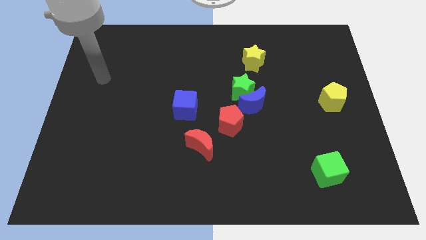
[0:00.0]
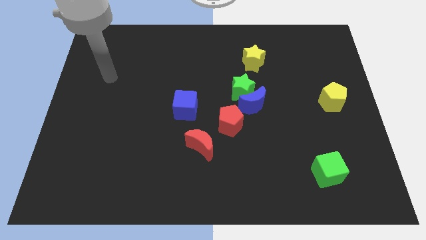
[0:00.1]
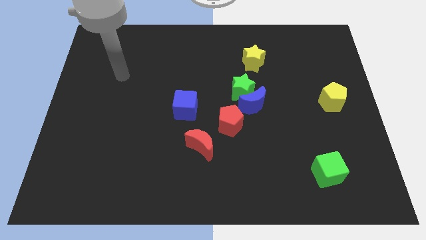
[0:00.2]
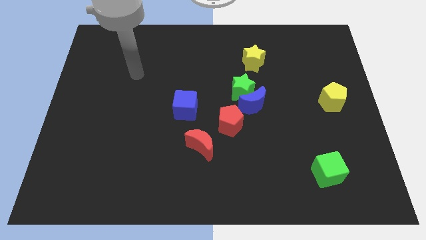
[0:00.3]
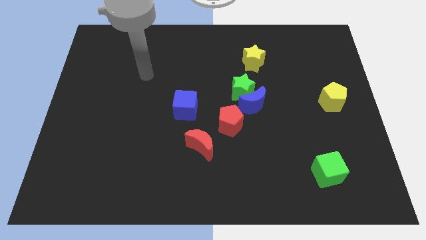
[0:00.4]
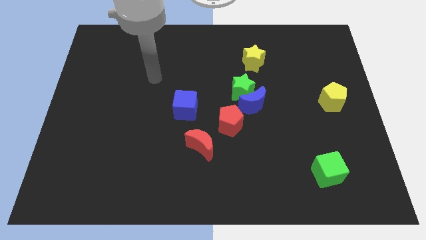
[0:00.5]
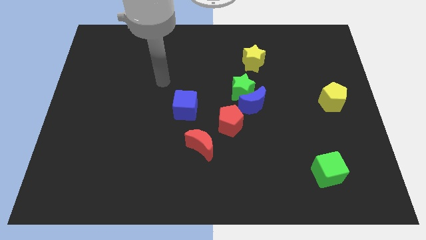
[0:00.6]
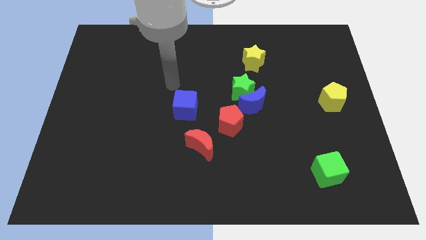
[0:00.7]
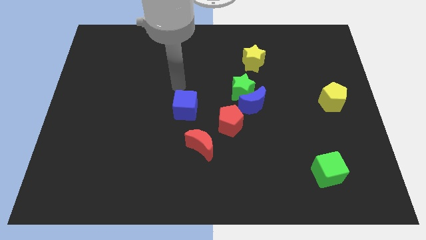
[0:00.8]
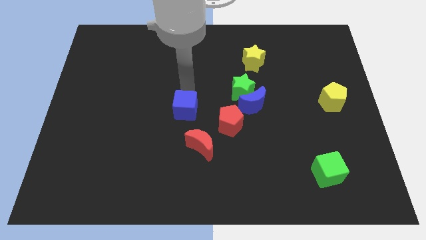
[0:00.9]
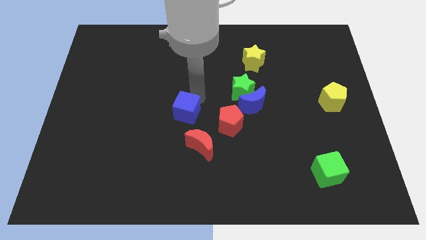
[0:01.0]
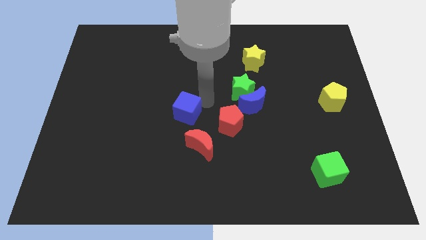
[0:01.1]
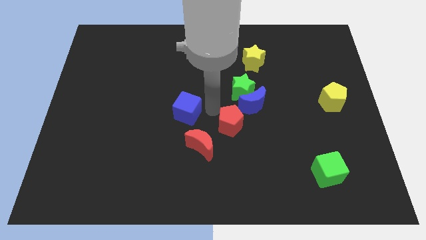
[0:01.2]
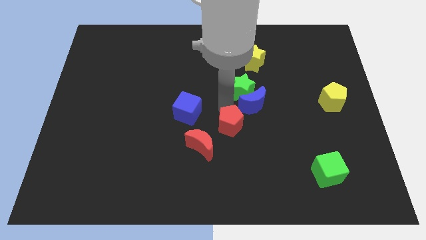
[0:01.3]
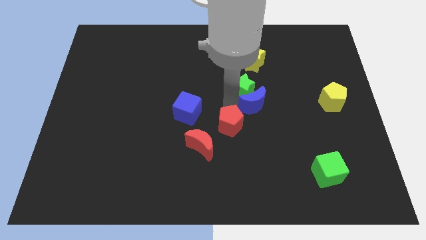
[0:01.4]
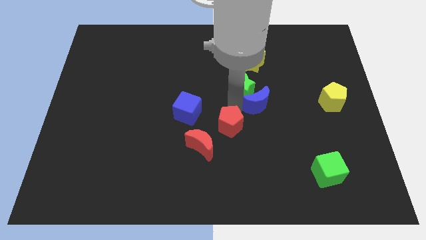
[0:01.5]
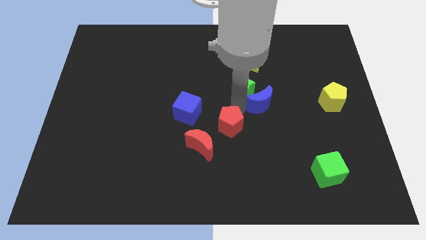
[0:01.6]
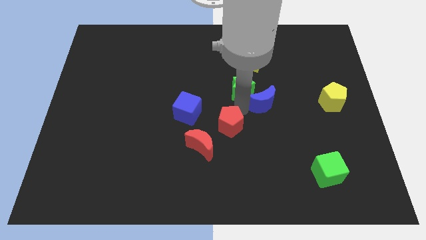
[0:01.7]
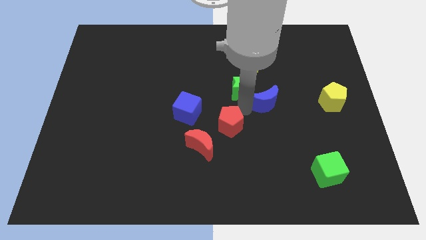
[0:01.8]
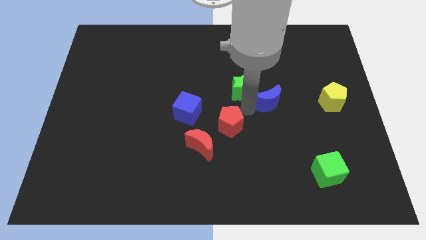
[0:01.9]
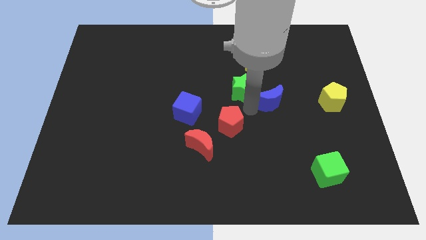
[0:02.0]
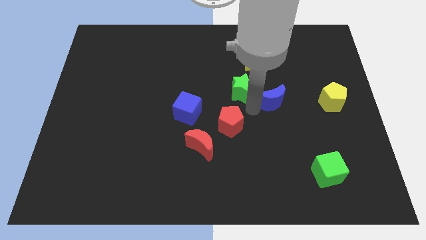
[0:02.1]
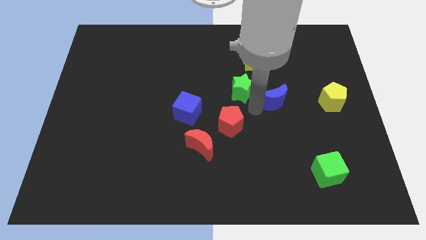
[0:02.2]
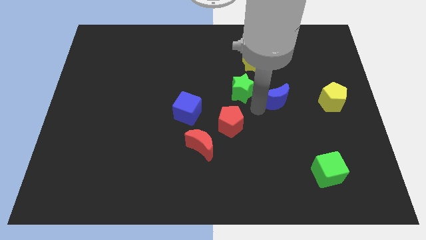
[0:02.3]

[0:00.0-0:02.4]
move the blue moon away from the green star and red pentagon

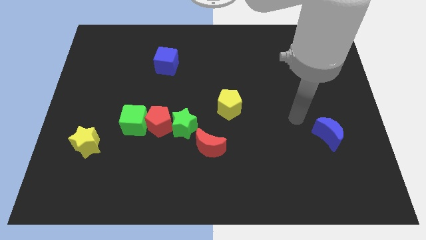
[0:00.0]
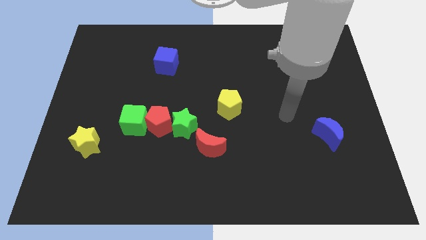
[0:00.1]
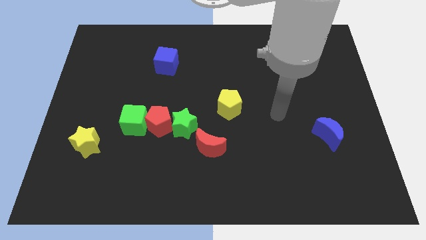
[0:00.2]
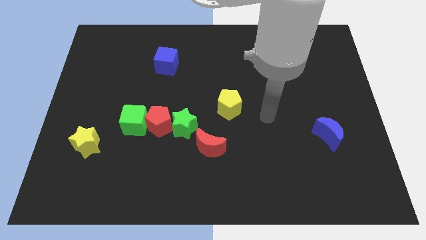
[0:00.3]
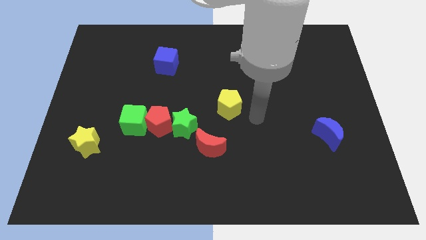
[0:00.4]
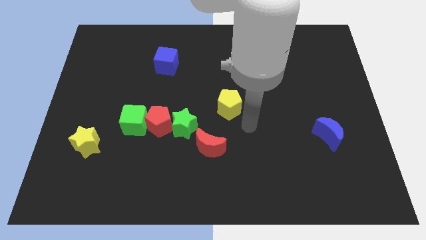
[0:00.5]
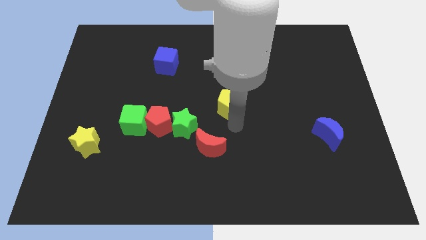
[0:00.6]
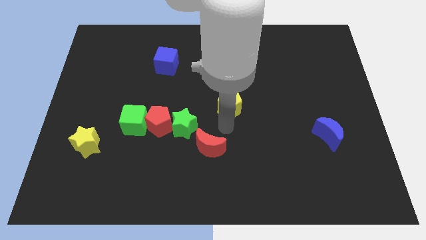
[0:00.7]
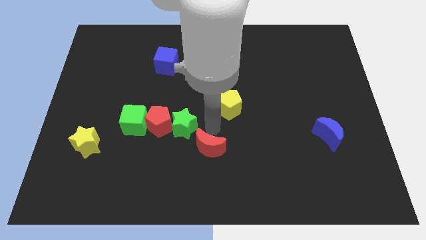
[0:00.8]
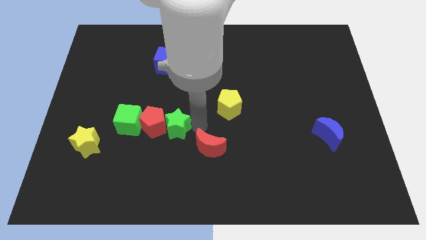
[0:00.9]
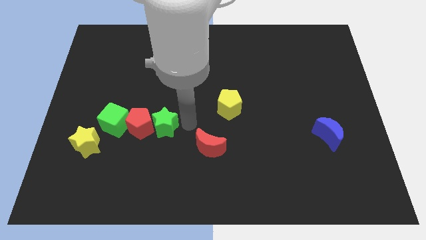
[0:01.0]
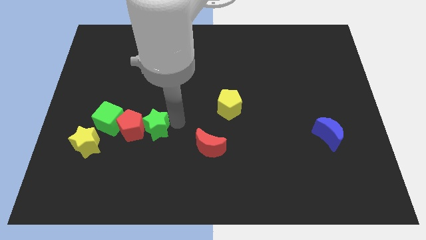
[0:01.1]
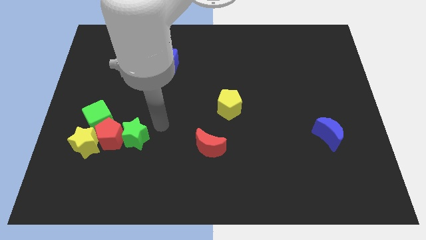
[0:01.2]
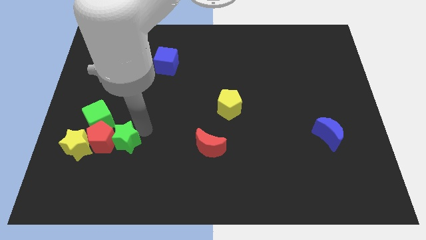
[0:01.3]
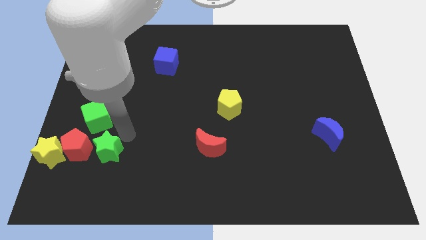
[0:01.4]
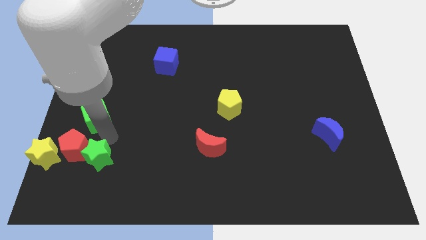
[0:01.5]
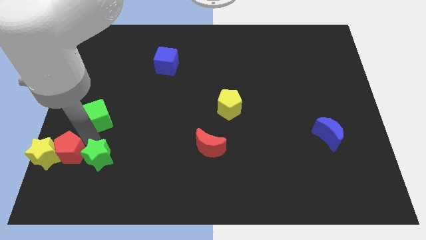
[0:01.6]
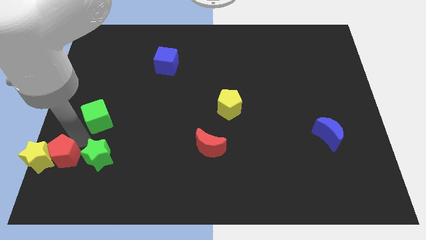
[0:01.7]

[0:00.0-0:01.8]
move the green cube away from the red pentagon

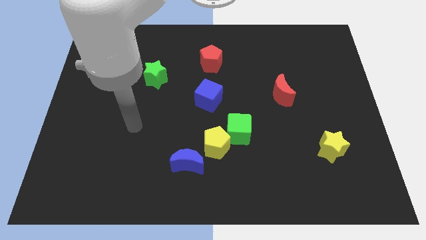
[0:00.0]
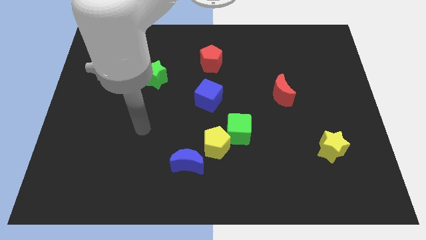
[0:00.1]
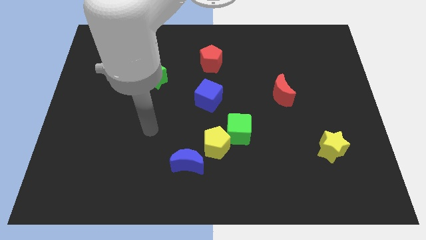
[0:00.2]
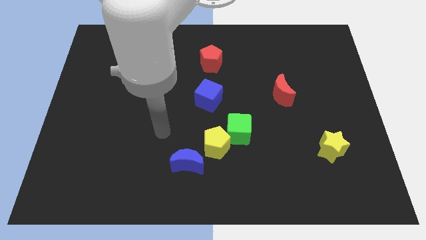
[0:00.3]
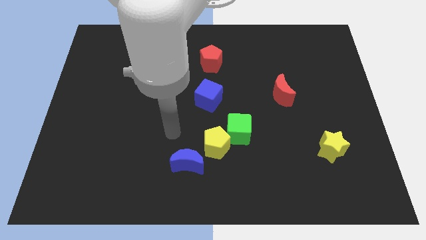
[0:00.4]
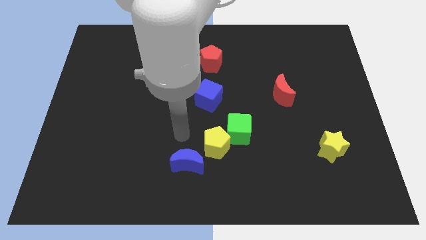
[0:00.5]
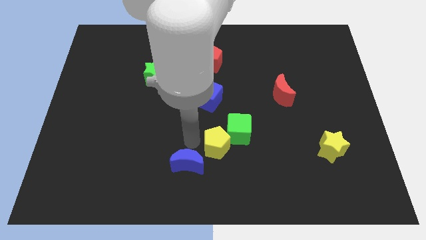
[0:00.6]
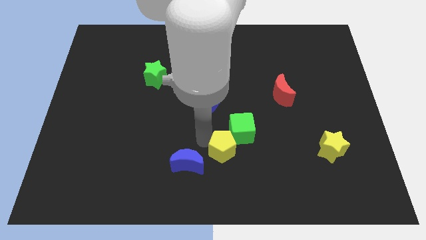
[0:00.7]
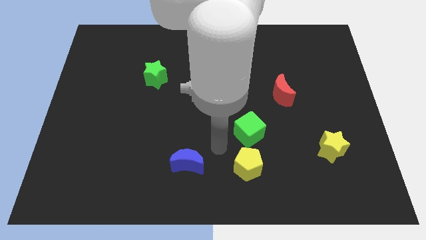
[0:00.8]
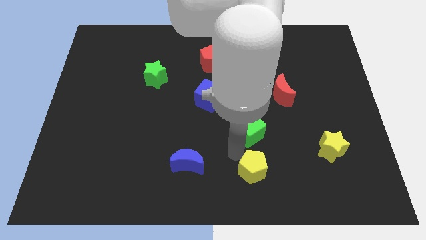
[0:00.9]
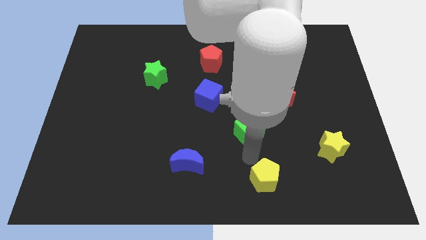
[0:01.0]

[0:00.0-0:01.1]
pull the green cube apart from the yellow pentagon

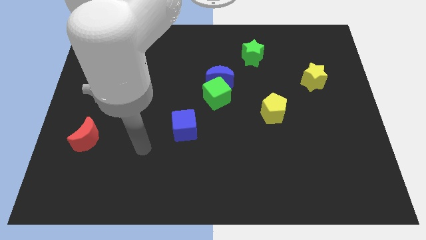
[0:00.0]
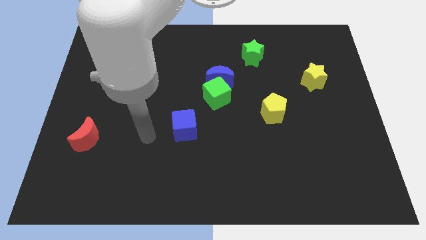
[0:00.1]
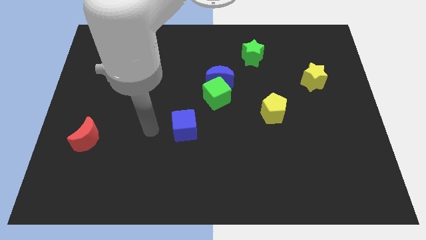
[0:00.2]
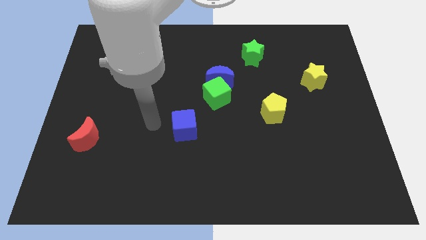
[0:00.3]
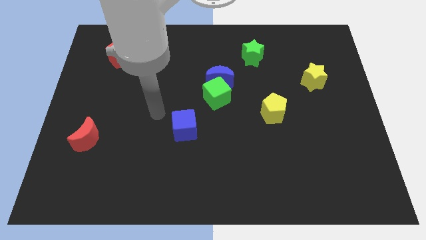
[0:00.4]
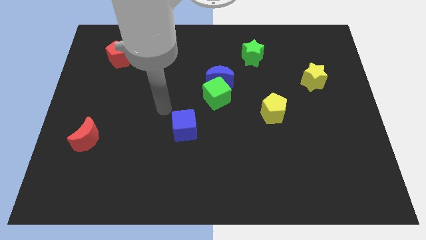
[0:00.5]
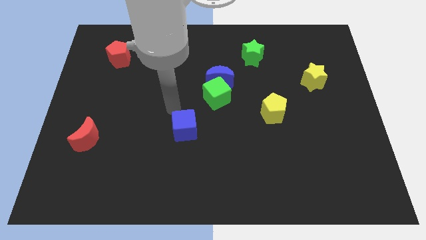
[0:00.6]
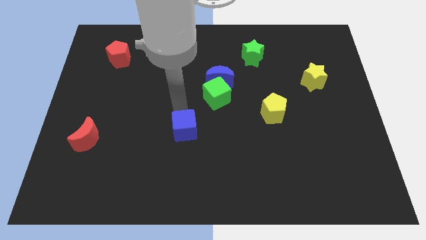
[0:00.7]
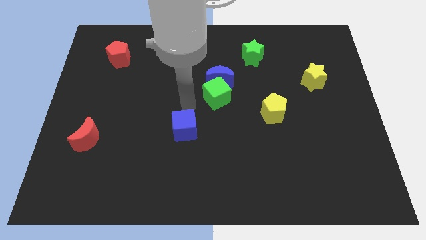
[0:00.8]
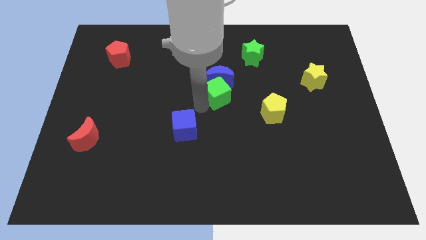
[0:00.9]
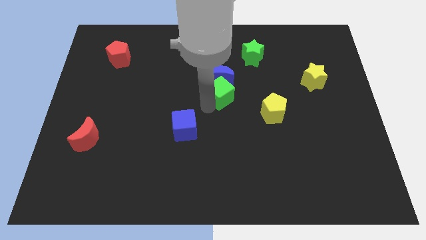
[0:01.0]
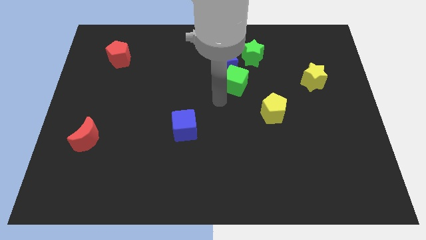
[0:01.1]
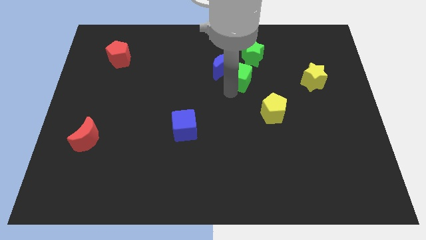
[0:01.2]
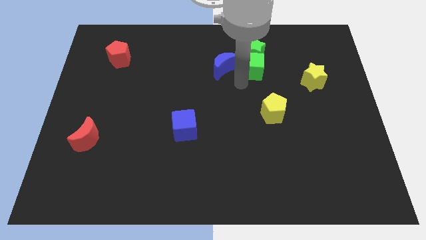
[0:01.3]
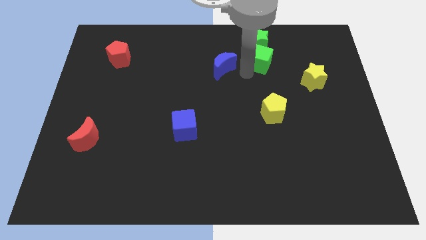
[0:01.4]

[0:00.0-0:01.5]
separate the blue moon from the green cube

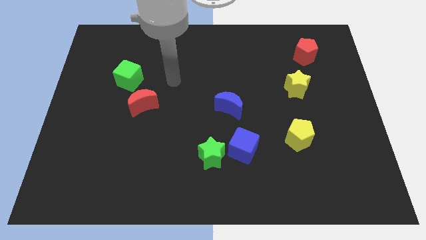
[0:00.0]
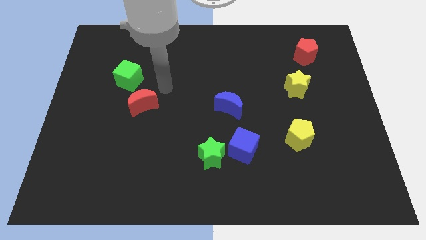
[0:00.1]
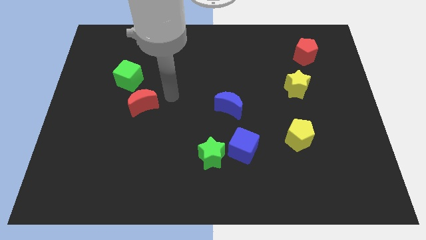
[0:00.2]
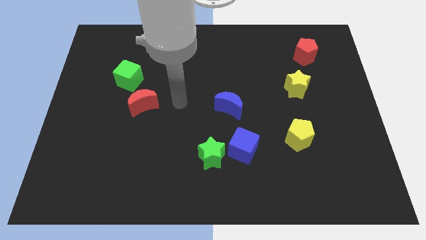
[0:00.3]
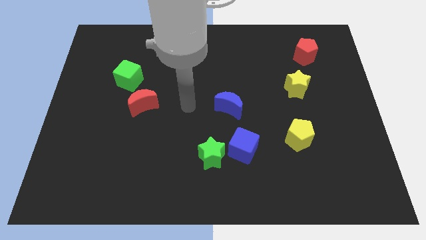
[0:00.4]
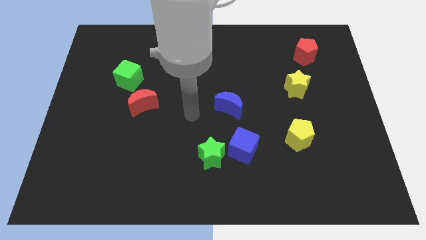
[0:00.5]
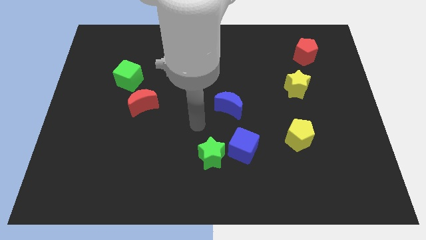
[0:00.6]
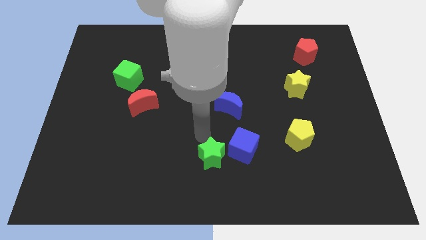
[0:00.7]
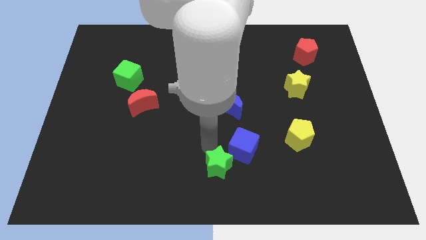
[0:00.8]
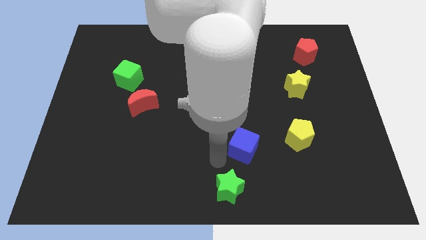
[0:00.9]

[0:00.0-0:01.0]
pull the blue cube apart from the green star

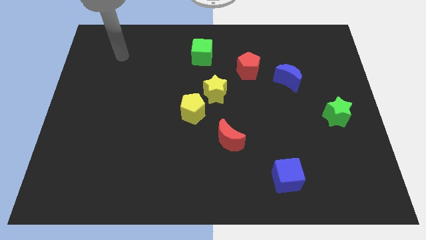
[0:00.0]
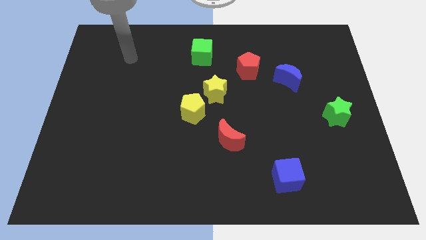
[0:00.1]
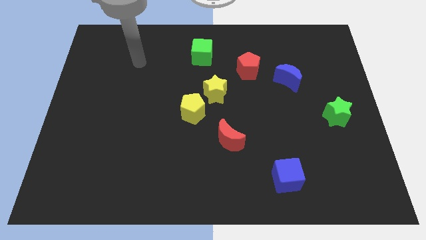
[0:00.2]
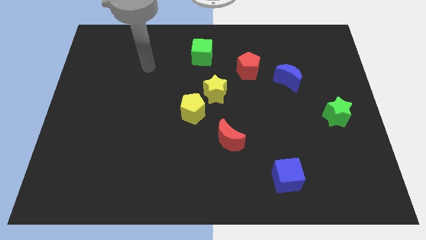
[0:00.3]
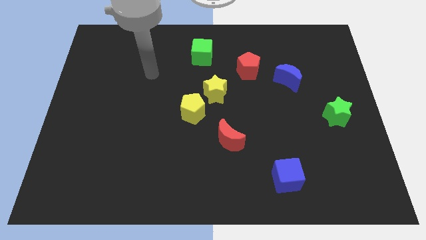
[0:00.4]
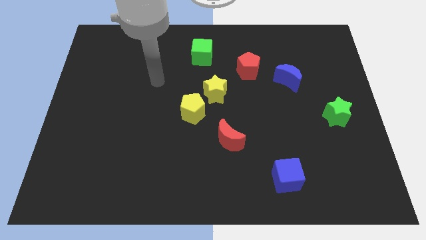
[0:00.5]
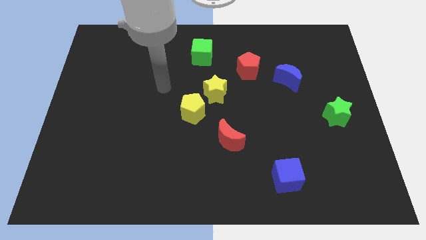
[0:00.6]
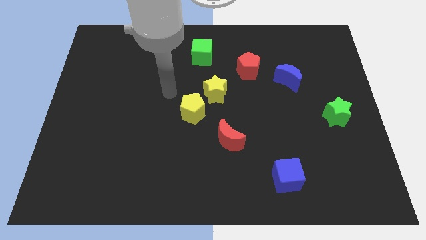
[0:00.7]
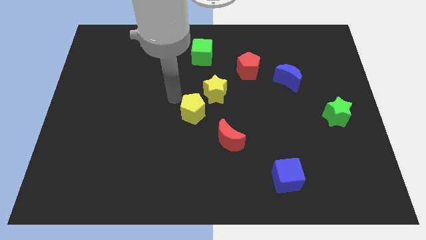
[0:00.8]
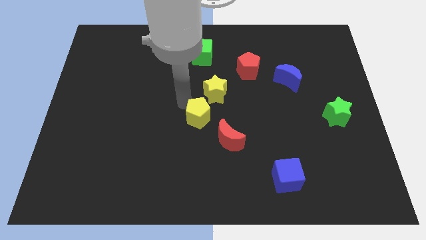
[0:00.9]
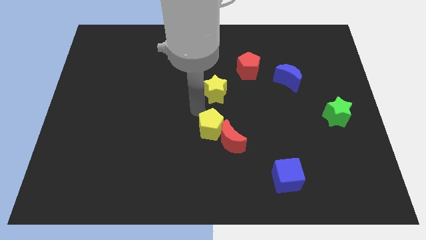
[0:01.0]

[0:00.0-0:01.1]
pull the yellow star apart from the yellow pentagon
